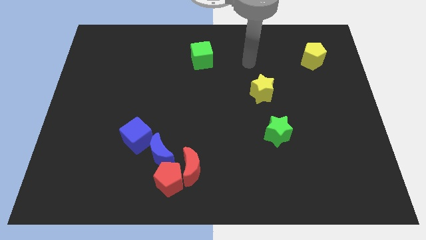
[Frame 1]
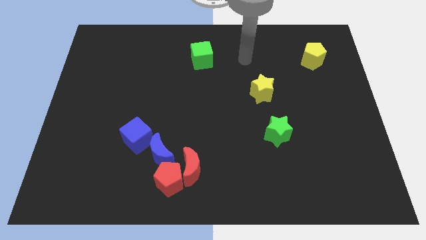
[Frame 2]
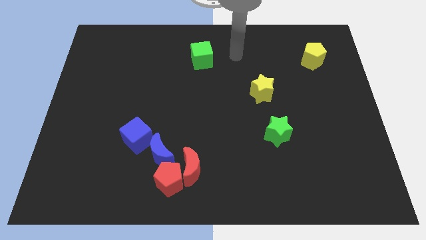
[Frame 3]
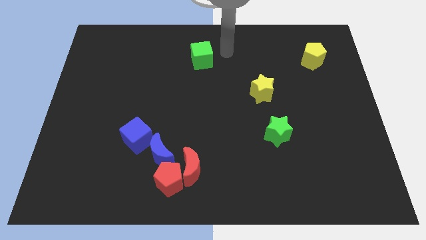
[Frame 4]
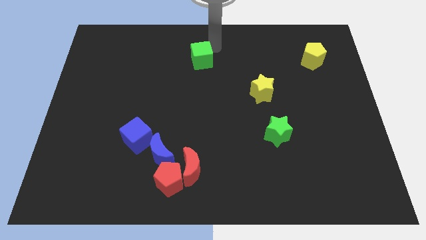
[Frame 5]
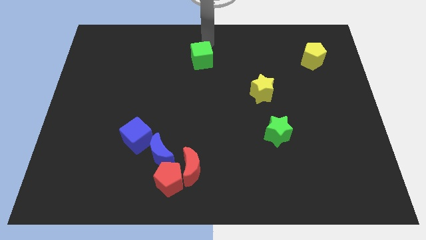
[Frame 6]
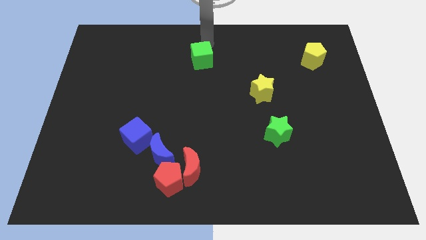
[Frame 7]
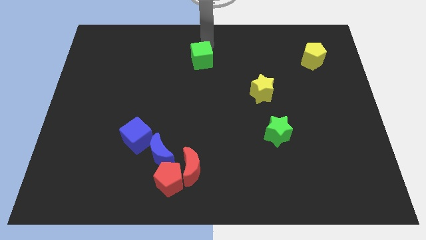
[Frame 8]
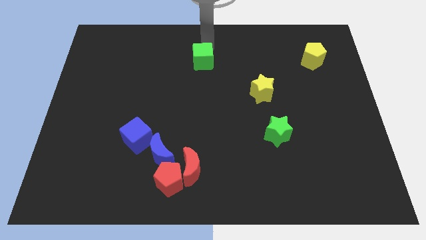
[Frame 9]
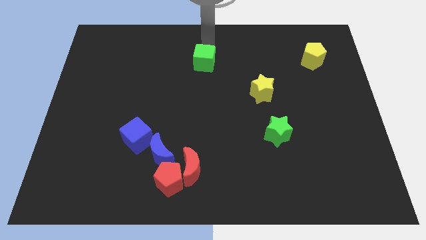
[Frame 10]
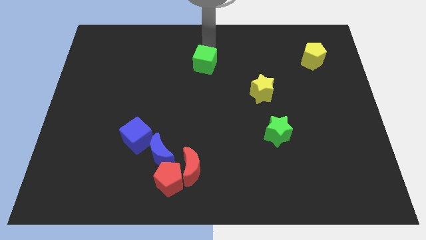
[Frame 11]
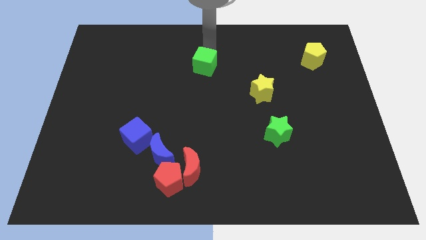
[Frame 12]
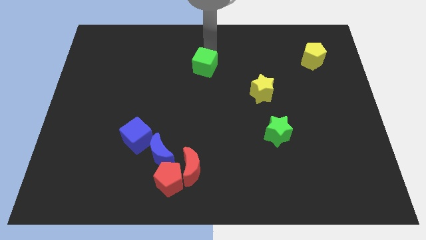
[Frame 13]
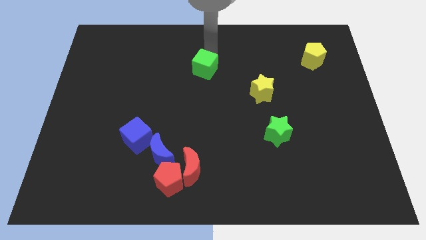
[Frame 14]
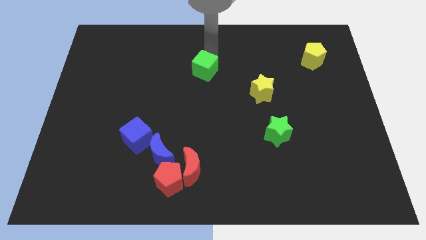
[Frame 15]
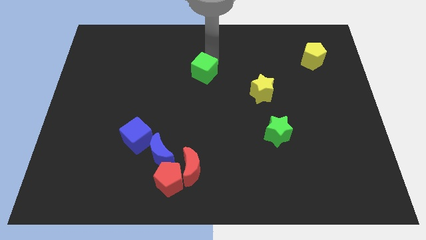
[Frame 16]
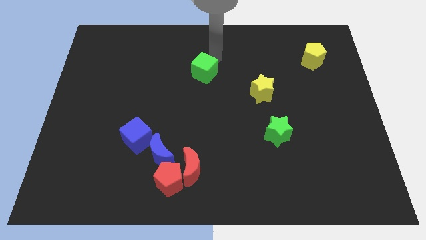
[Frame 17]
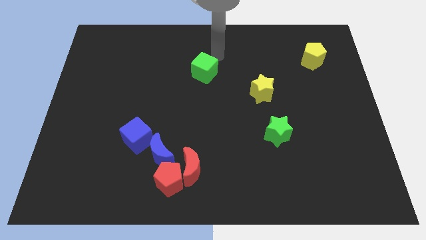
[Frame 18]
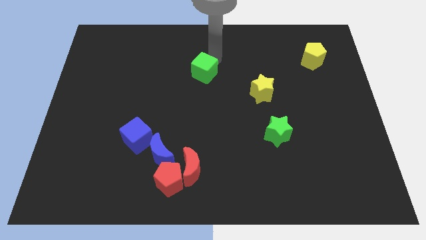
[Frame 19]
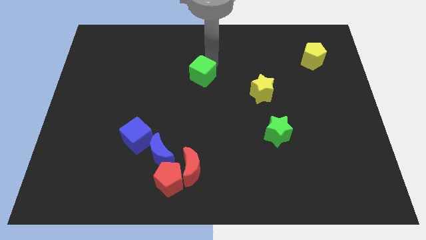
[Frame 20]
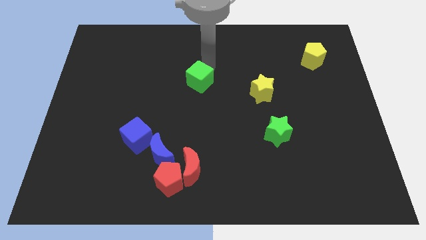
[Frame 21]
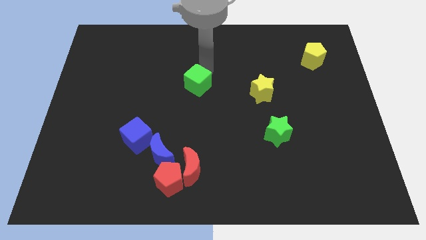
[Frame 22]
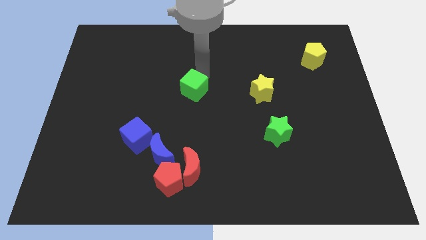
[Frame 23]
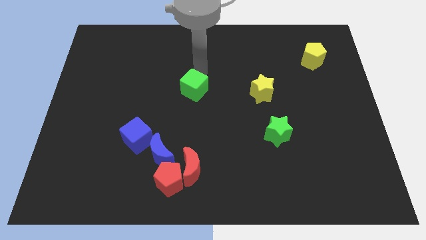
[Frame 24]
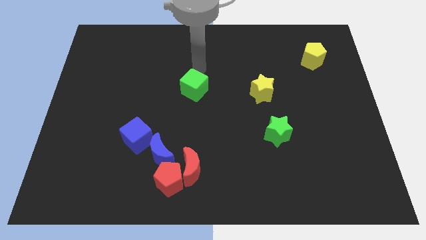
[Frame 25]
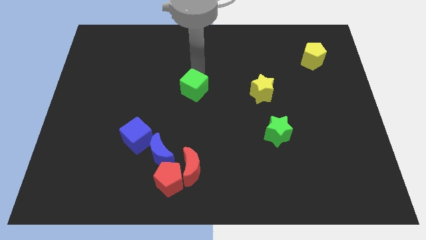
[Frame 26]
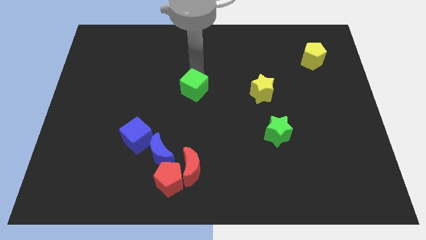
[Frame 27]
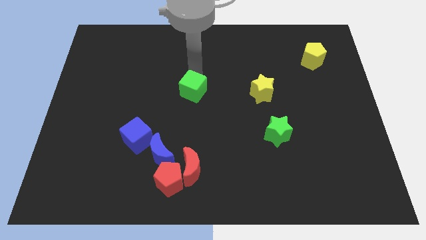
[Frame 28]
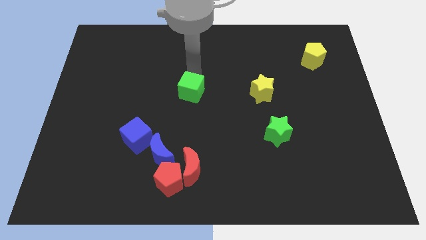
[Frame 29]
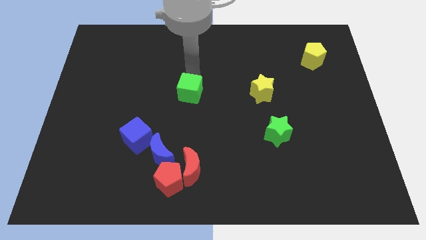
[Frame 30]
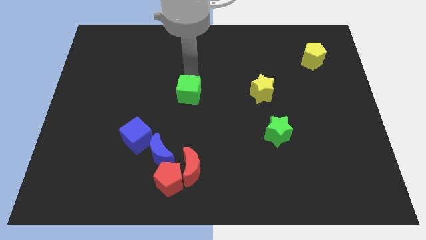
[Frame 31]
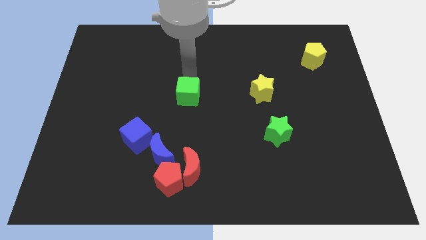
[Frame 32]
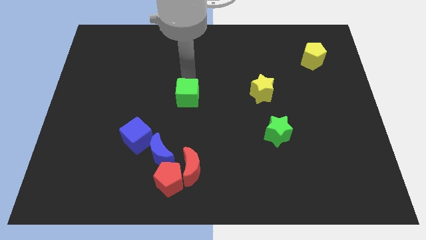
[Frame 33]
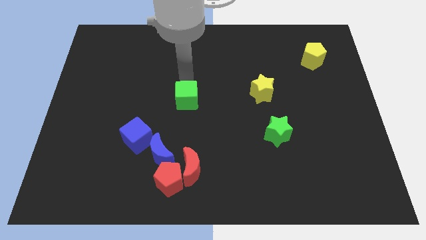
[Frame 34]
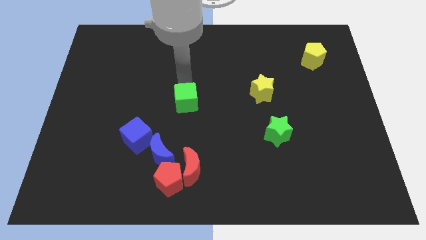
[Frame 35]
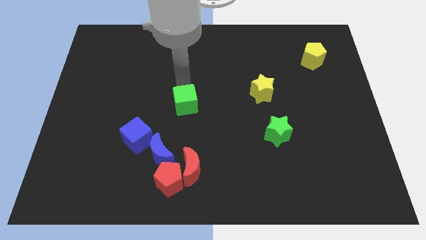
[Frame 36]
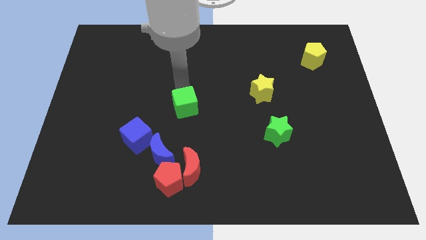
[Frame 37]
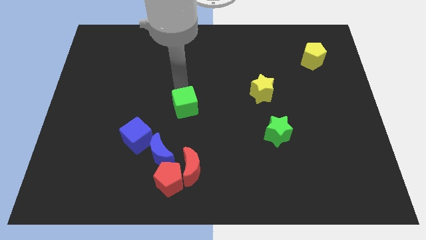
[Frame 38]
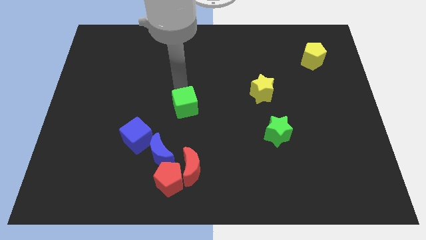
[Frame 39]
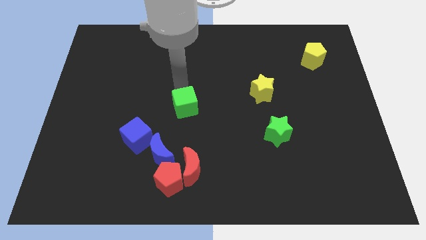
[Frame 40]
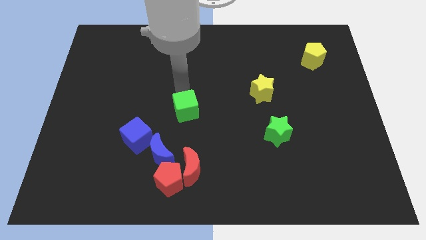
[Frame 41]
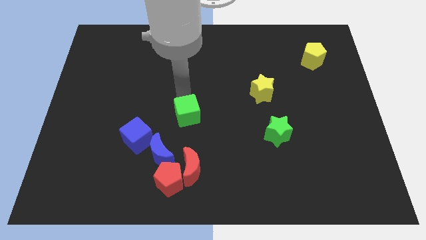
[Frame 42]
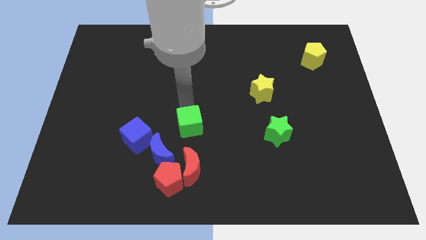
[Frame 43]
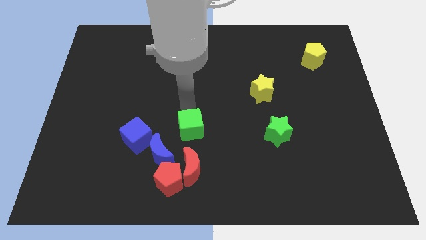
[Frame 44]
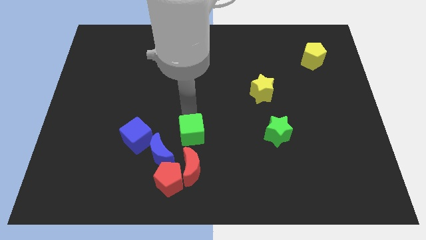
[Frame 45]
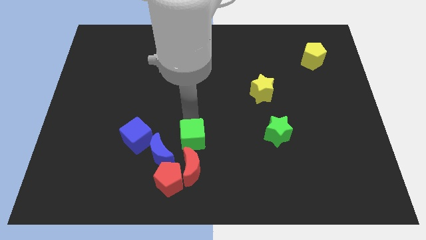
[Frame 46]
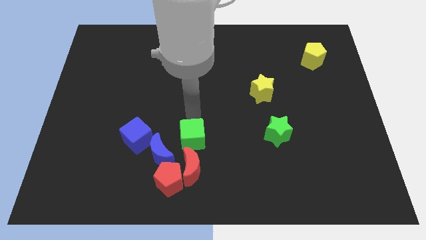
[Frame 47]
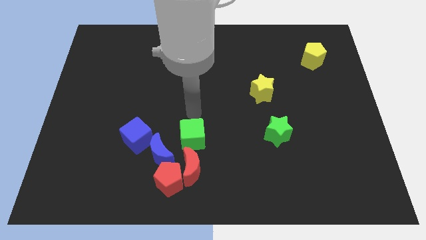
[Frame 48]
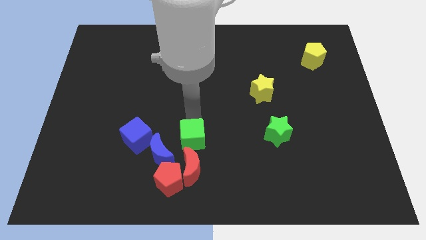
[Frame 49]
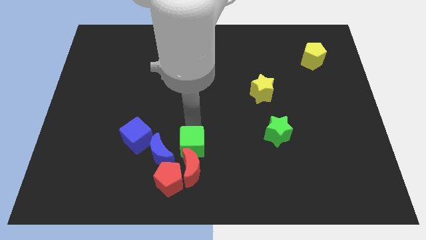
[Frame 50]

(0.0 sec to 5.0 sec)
push the green cube close to the red moon

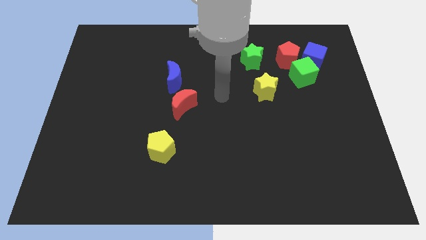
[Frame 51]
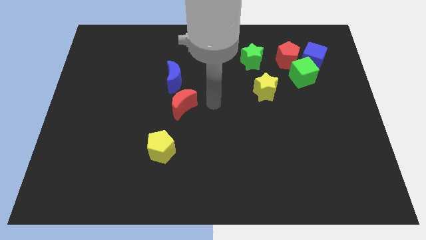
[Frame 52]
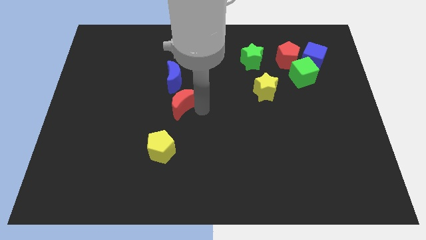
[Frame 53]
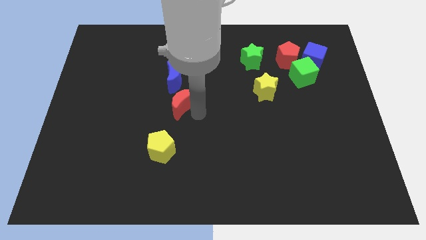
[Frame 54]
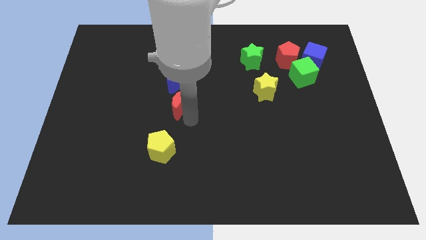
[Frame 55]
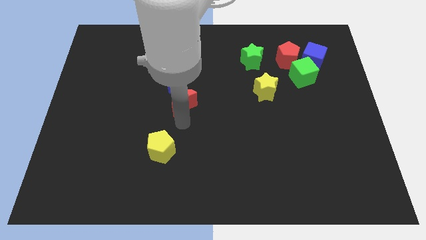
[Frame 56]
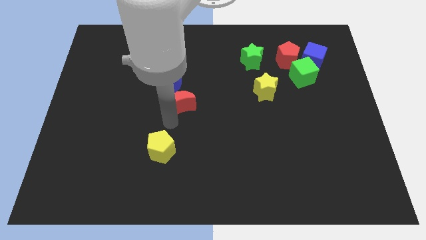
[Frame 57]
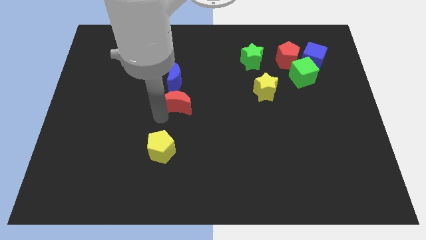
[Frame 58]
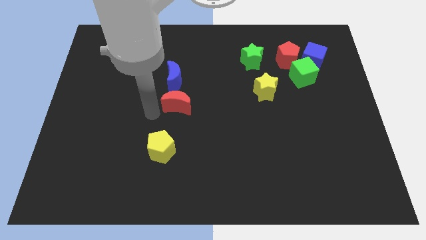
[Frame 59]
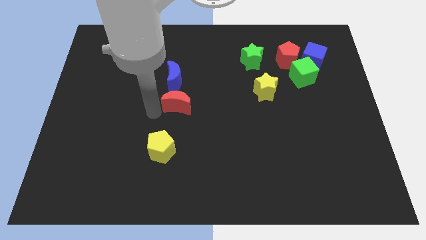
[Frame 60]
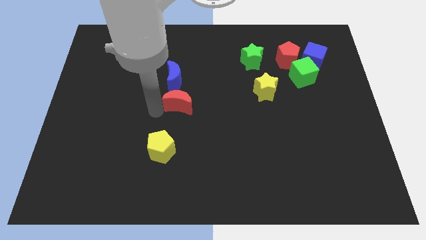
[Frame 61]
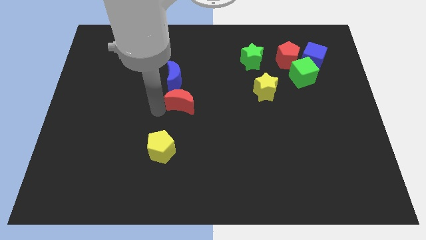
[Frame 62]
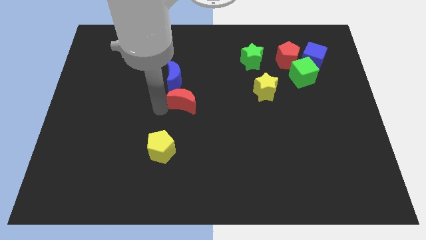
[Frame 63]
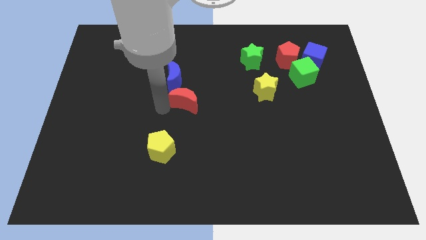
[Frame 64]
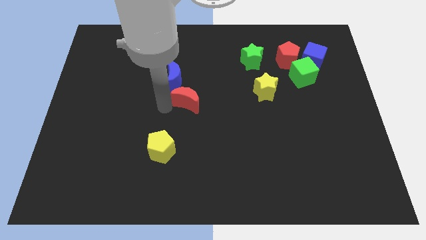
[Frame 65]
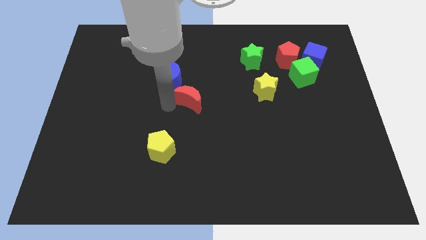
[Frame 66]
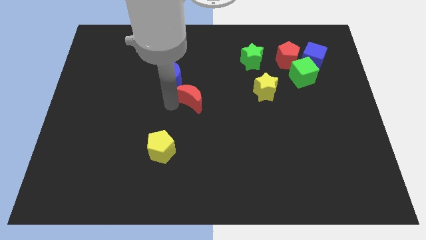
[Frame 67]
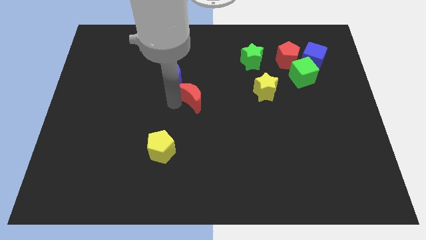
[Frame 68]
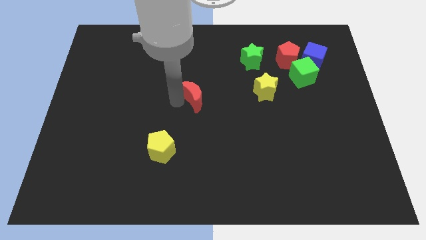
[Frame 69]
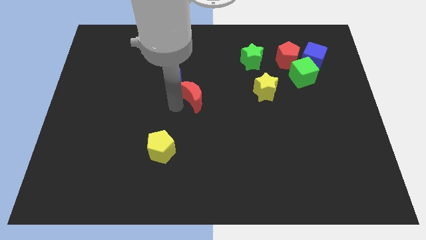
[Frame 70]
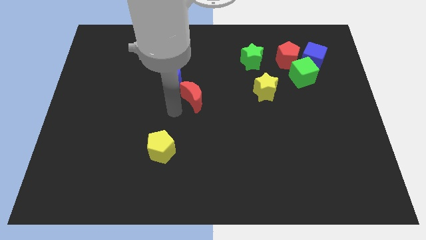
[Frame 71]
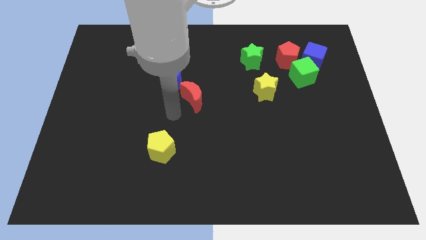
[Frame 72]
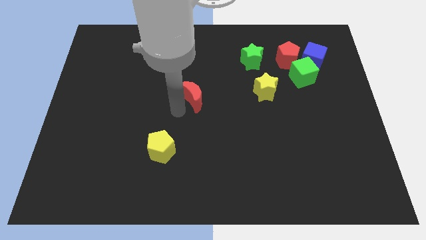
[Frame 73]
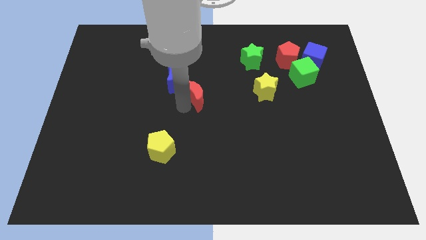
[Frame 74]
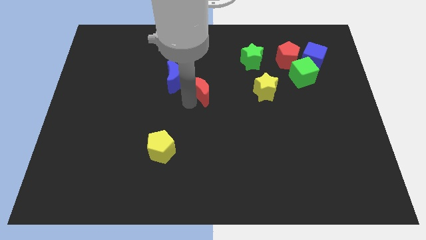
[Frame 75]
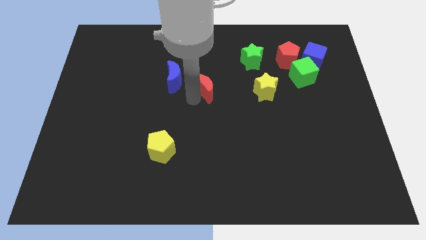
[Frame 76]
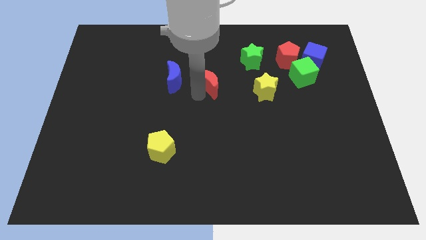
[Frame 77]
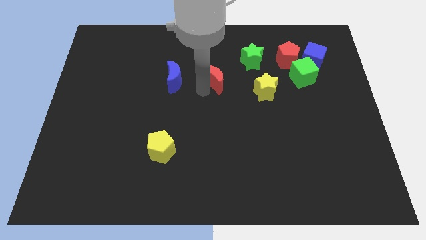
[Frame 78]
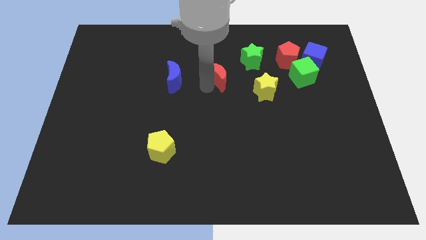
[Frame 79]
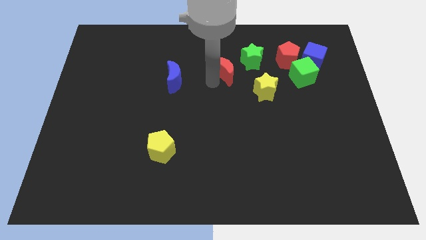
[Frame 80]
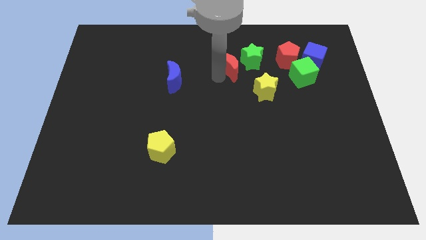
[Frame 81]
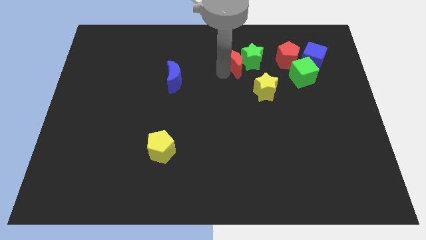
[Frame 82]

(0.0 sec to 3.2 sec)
slide the red moon next to the green star
